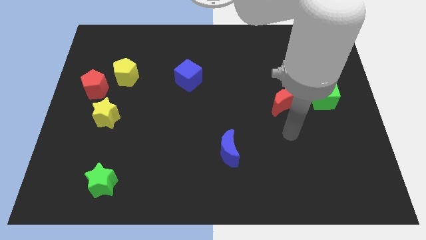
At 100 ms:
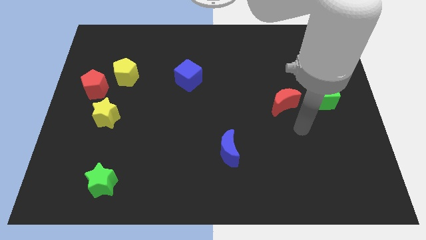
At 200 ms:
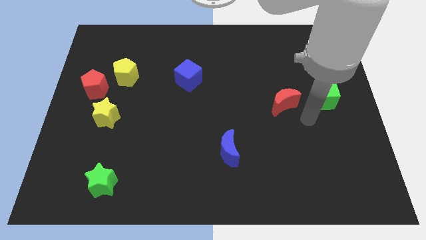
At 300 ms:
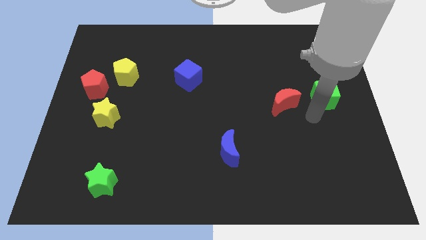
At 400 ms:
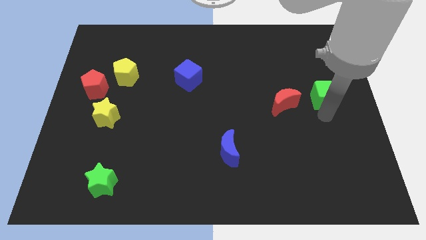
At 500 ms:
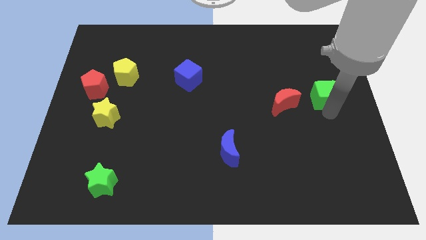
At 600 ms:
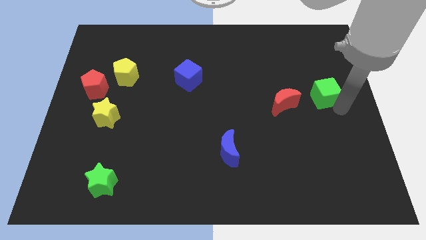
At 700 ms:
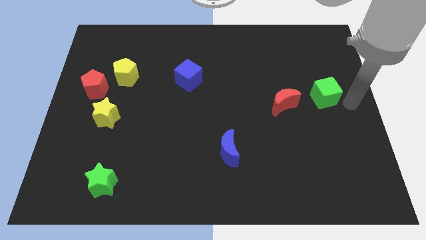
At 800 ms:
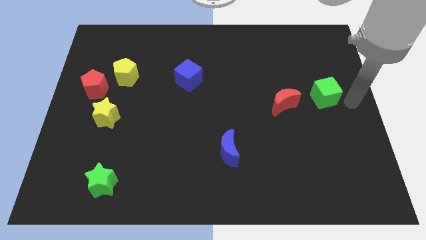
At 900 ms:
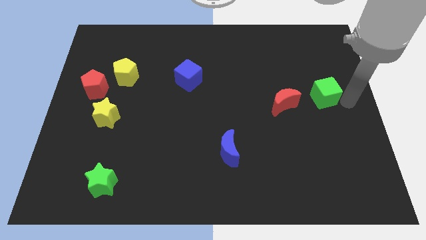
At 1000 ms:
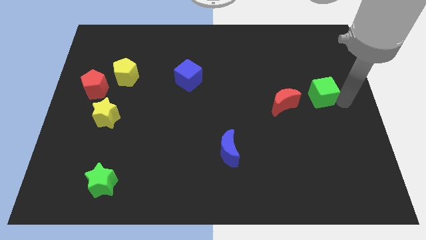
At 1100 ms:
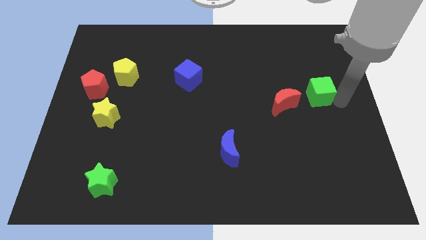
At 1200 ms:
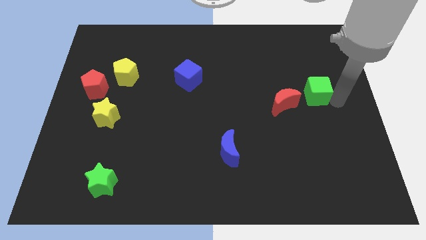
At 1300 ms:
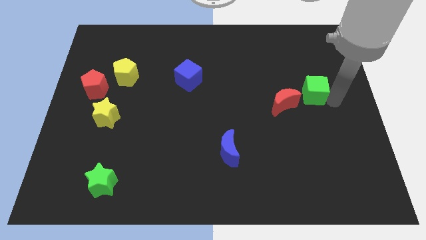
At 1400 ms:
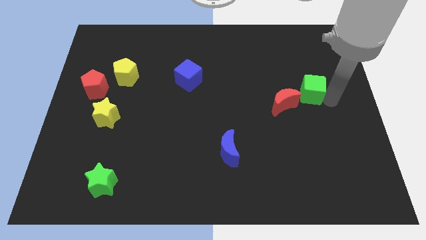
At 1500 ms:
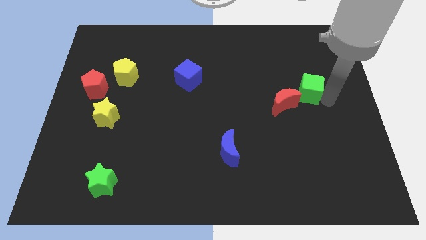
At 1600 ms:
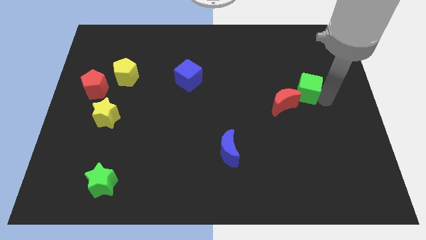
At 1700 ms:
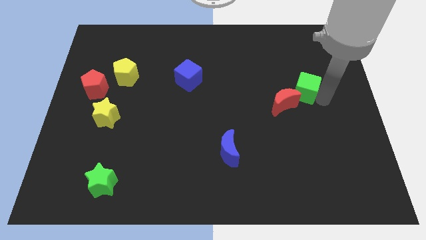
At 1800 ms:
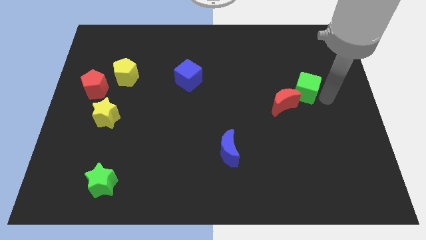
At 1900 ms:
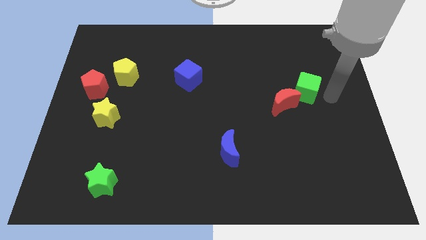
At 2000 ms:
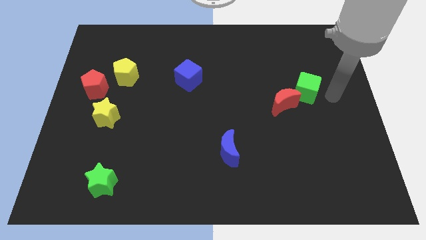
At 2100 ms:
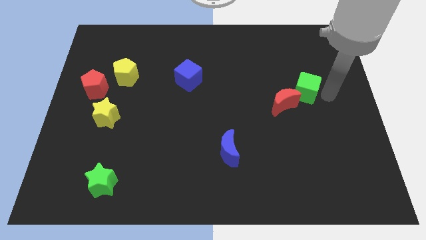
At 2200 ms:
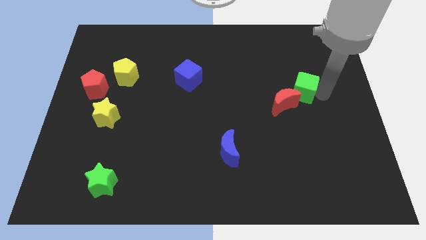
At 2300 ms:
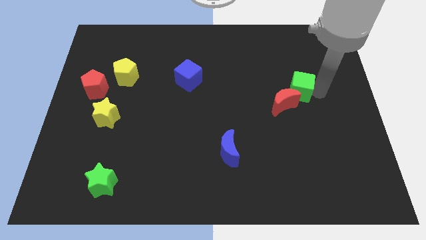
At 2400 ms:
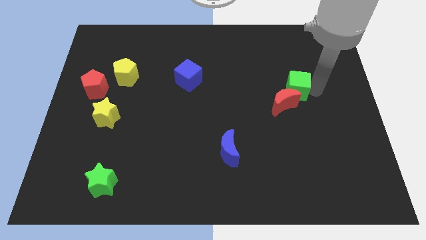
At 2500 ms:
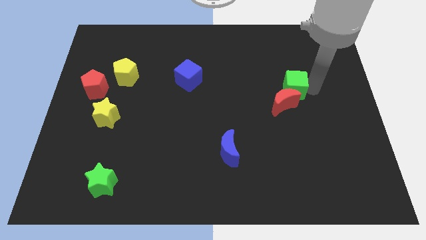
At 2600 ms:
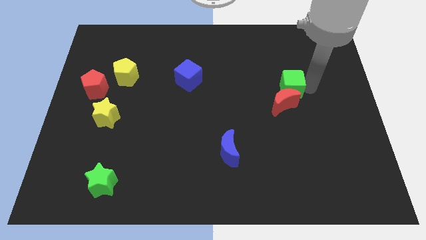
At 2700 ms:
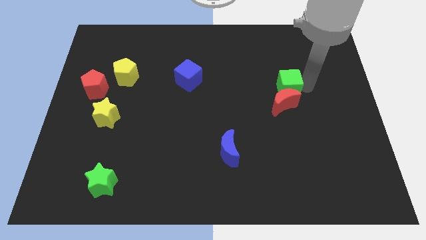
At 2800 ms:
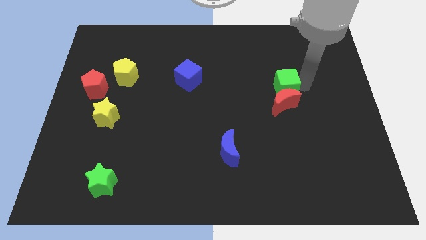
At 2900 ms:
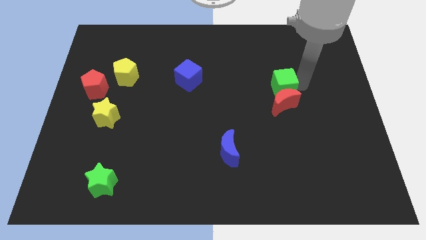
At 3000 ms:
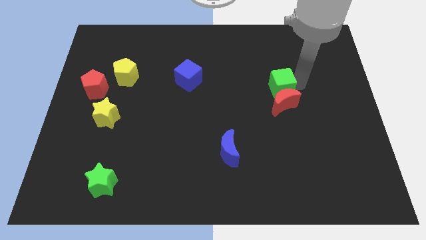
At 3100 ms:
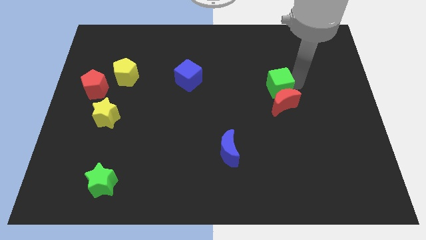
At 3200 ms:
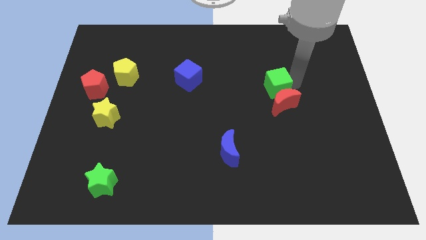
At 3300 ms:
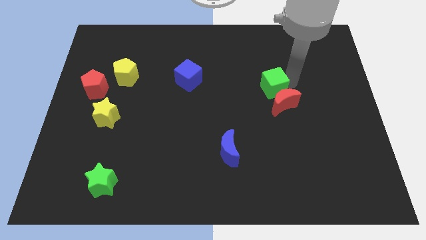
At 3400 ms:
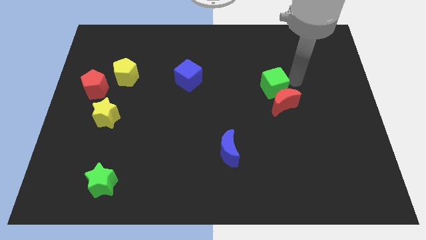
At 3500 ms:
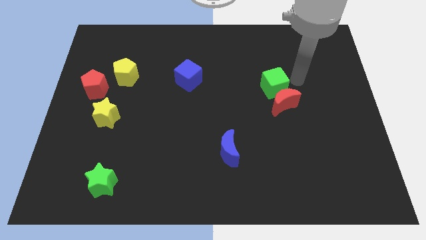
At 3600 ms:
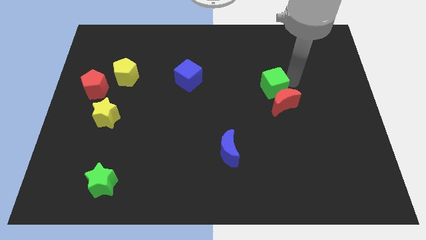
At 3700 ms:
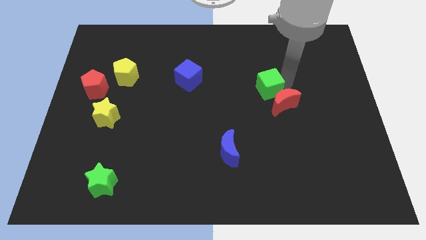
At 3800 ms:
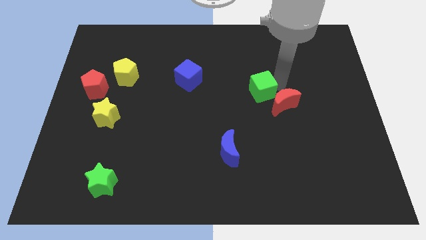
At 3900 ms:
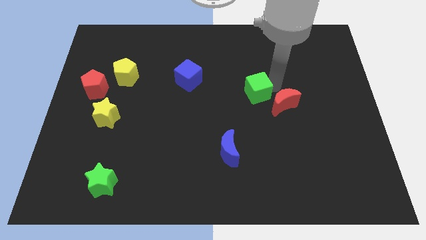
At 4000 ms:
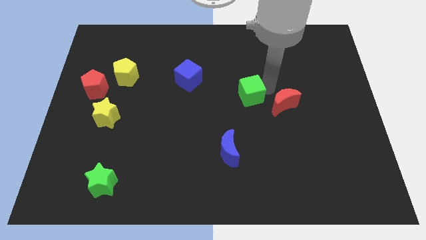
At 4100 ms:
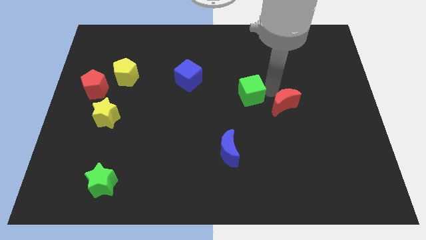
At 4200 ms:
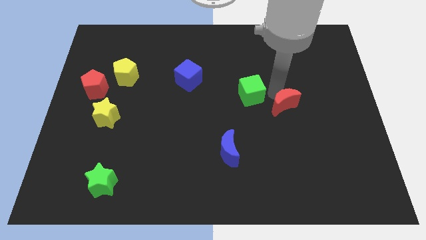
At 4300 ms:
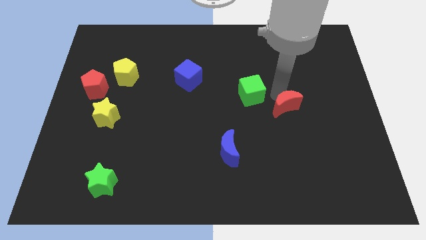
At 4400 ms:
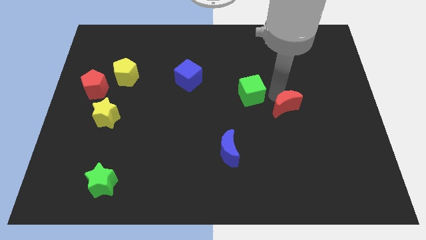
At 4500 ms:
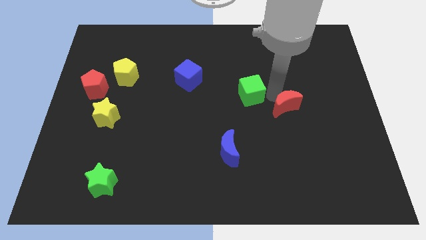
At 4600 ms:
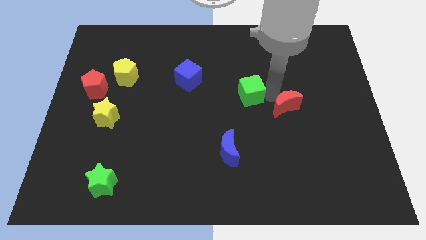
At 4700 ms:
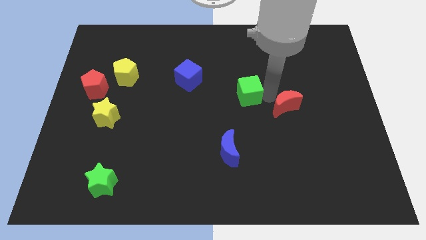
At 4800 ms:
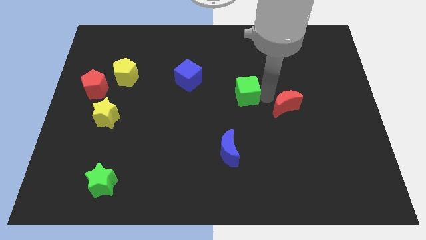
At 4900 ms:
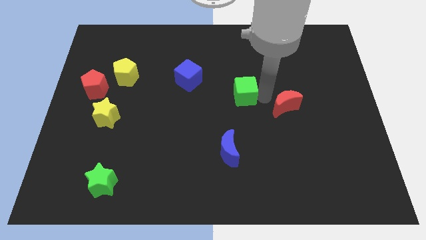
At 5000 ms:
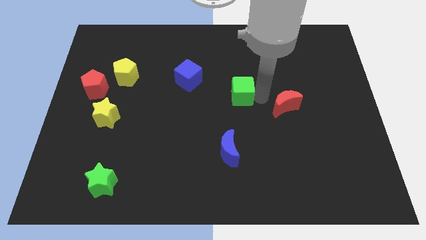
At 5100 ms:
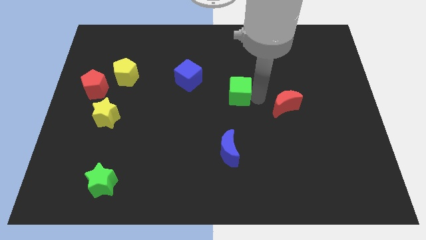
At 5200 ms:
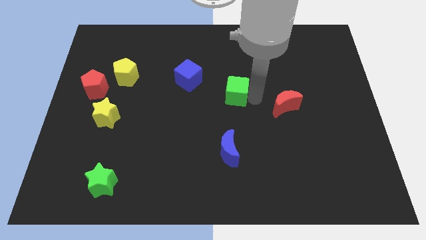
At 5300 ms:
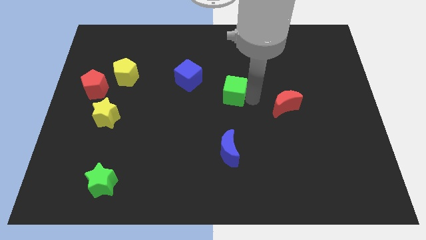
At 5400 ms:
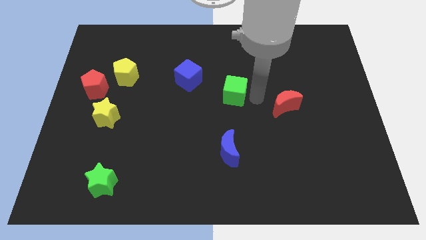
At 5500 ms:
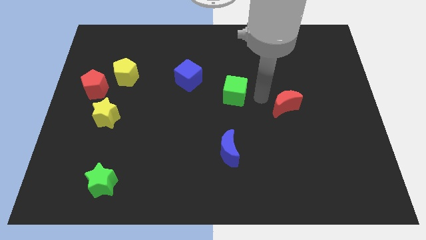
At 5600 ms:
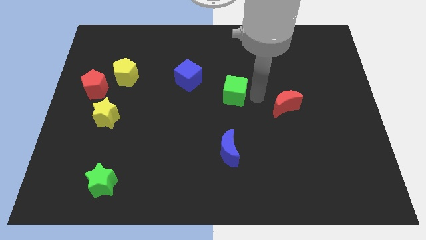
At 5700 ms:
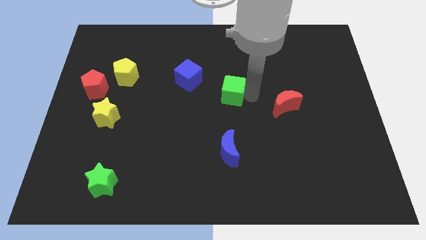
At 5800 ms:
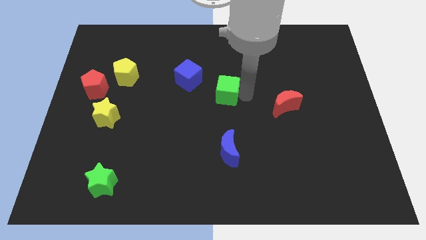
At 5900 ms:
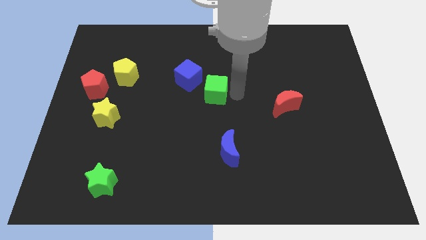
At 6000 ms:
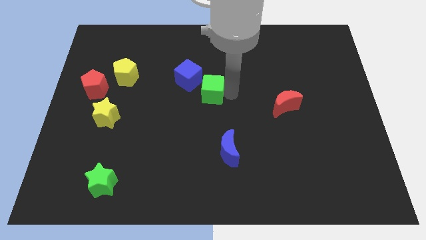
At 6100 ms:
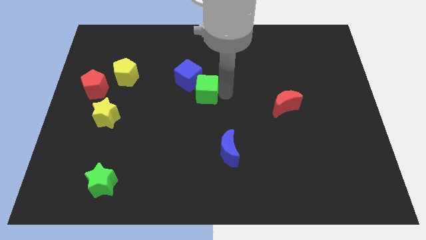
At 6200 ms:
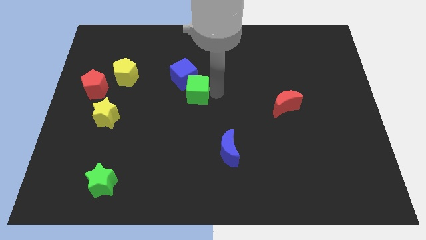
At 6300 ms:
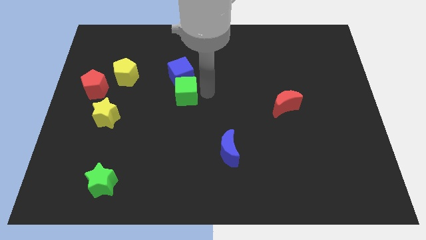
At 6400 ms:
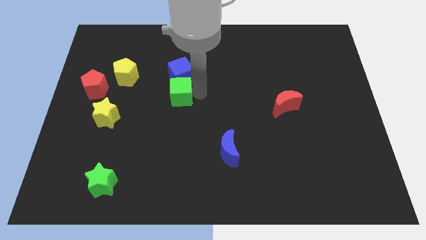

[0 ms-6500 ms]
slide the green cube to the bottom left side of the blue cube

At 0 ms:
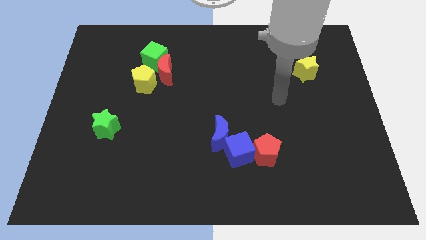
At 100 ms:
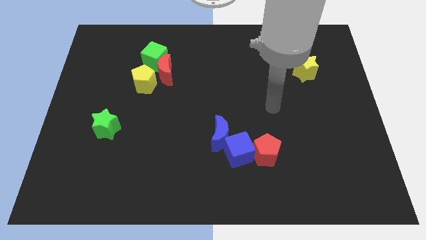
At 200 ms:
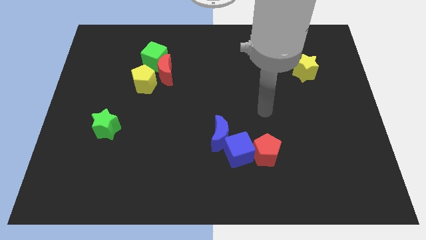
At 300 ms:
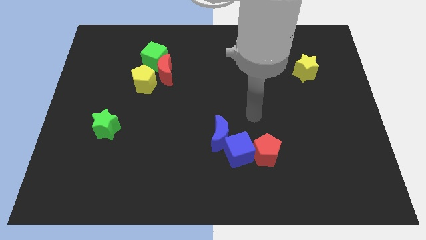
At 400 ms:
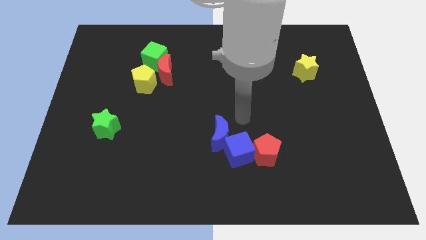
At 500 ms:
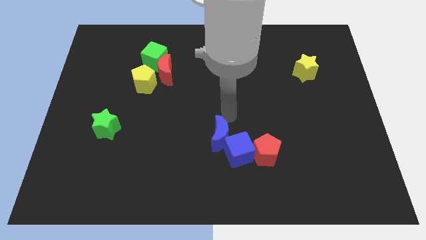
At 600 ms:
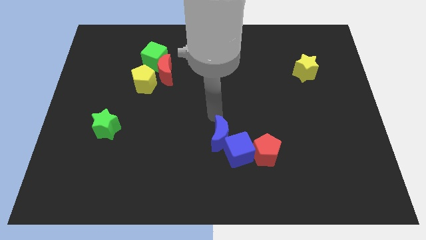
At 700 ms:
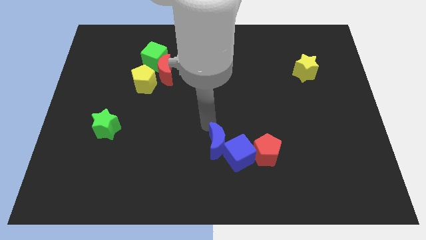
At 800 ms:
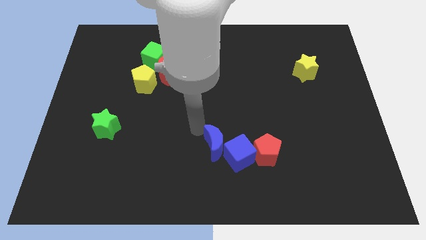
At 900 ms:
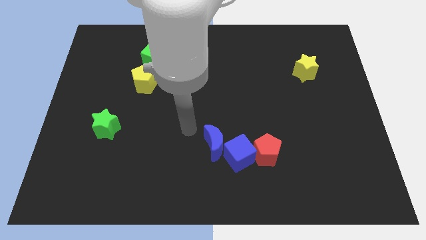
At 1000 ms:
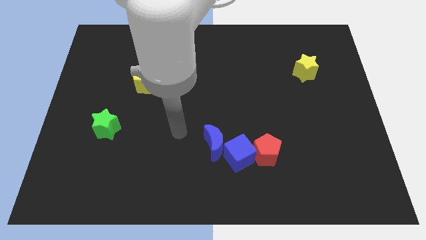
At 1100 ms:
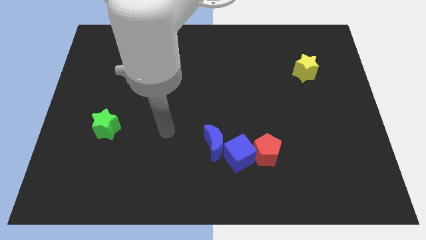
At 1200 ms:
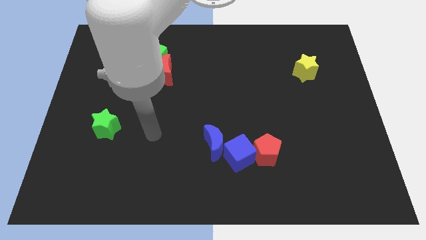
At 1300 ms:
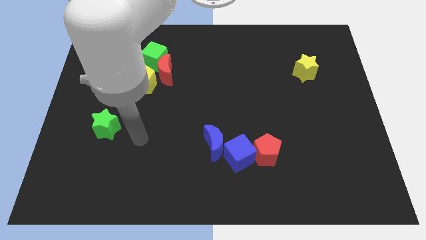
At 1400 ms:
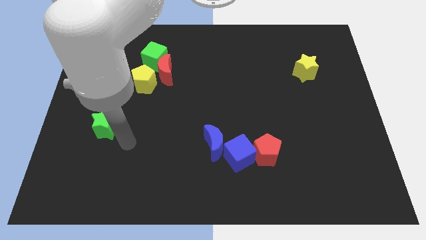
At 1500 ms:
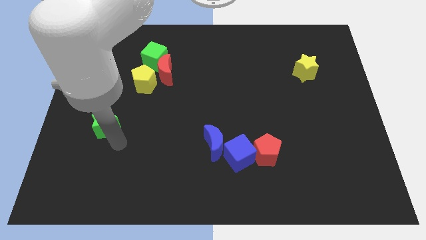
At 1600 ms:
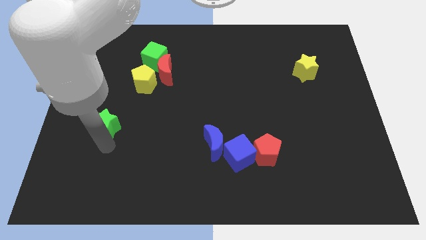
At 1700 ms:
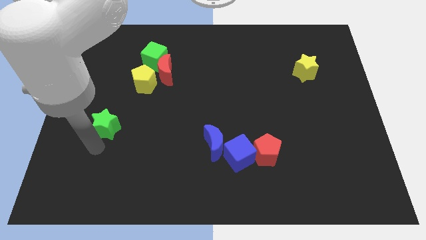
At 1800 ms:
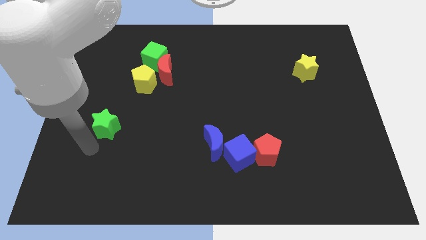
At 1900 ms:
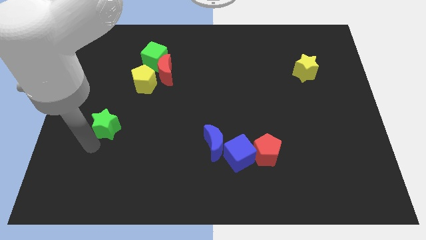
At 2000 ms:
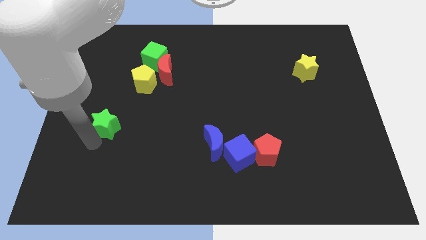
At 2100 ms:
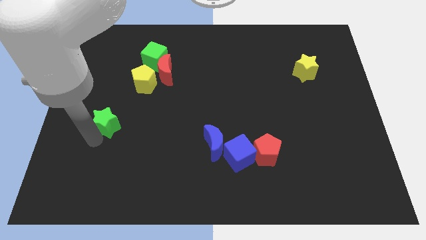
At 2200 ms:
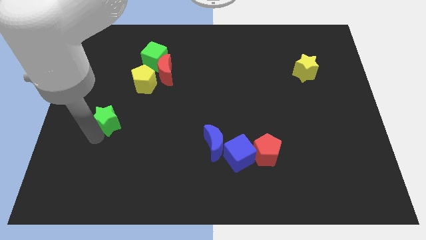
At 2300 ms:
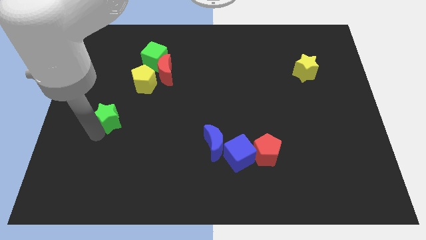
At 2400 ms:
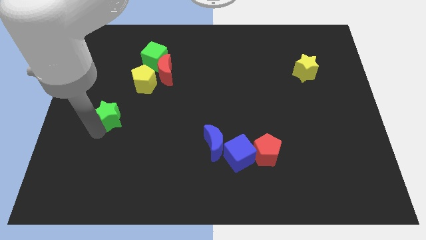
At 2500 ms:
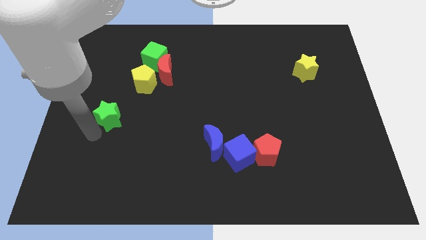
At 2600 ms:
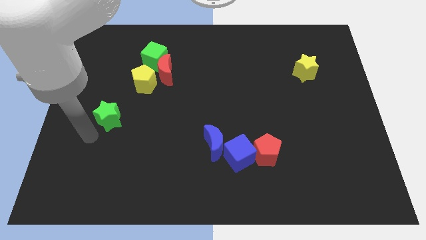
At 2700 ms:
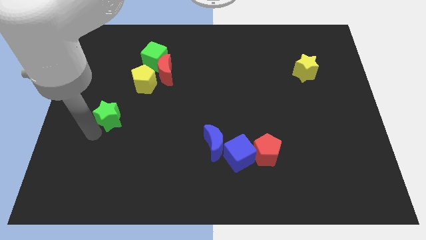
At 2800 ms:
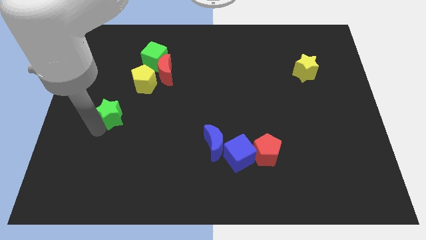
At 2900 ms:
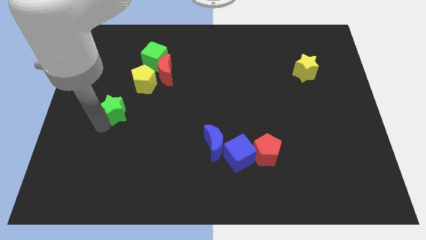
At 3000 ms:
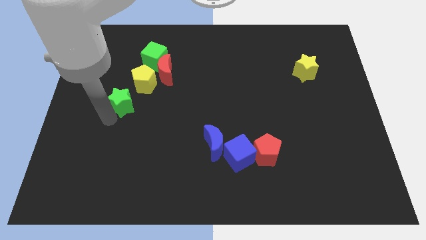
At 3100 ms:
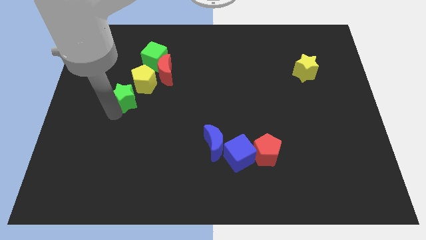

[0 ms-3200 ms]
slide the green star diagonally down and to the left of the red moon
